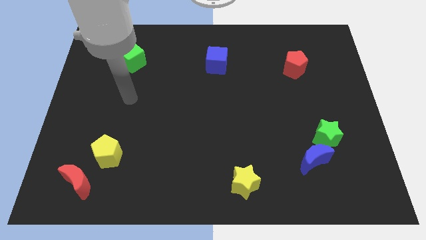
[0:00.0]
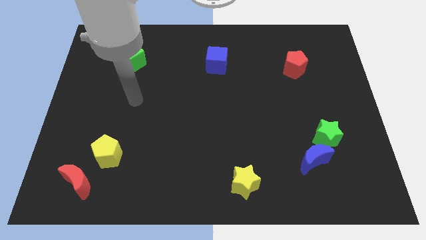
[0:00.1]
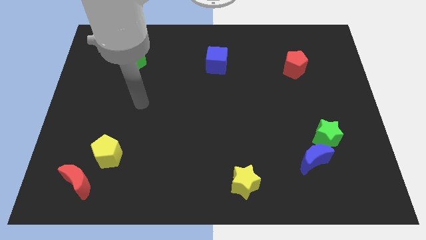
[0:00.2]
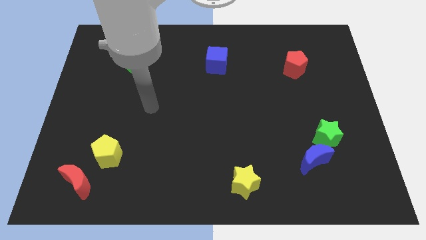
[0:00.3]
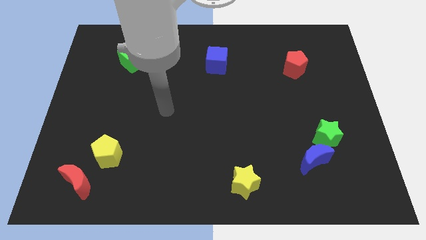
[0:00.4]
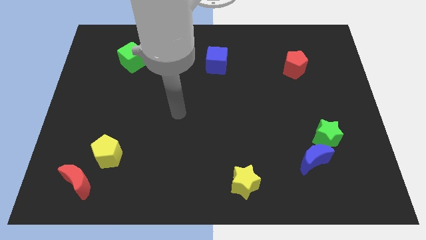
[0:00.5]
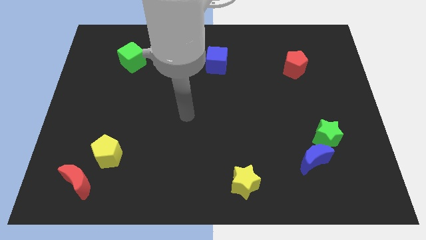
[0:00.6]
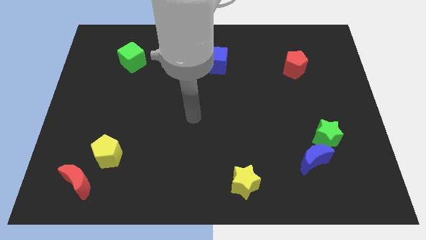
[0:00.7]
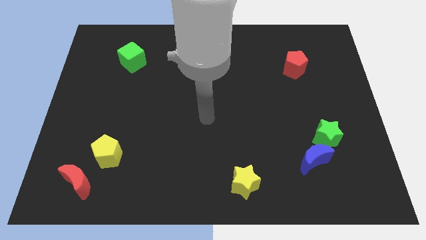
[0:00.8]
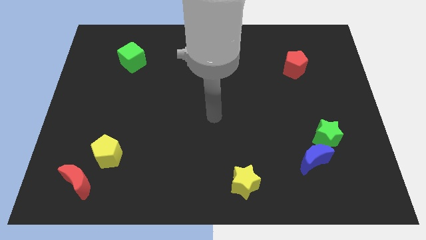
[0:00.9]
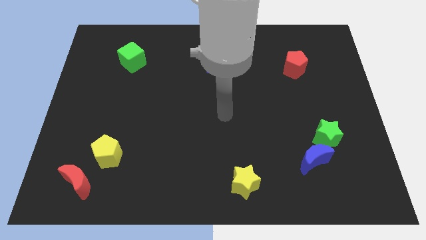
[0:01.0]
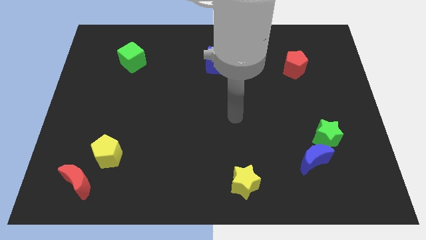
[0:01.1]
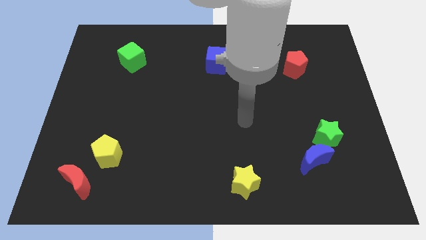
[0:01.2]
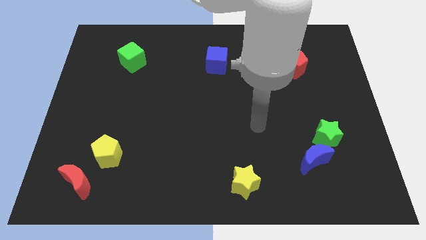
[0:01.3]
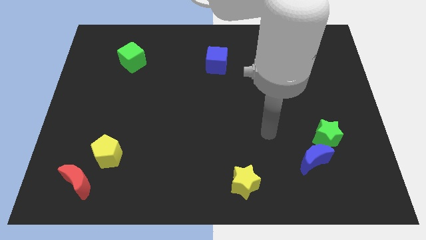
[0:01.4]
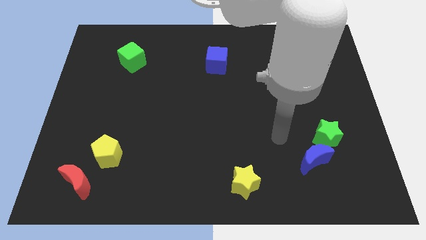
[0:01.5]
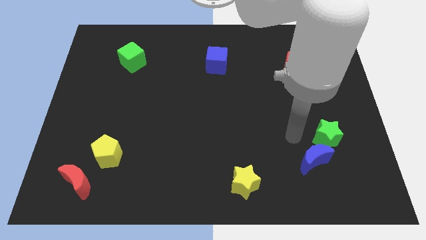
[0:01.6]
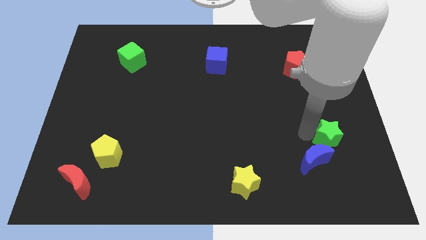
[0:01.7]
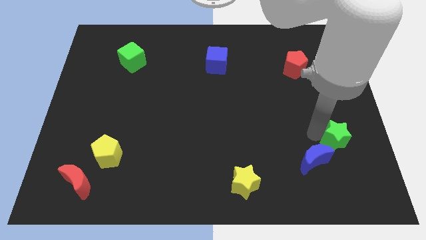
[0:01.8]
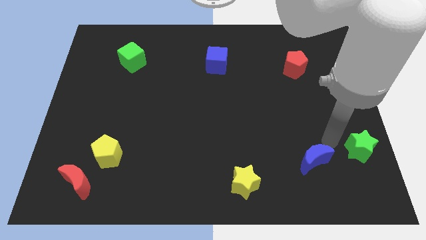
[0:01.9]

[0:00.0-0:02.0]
pull the blue moon apart from the green star

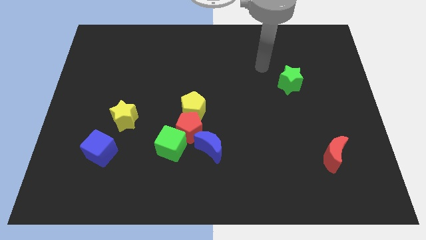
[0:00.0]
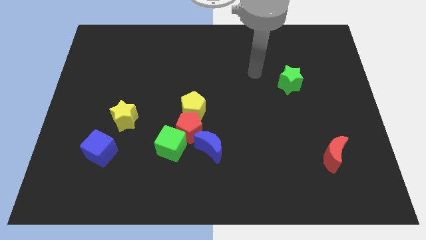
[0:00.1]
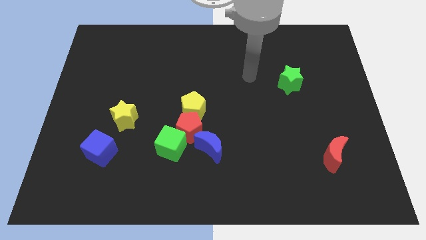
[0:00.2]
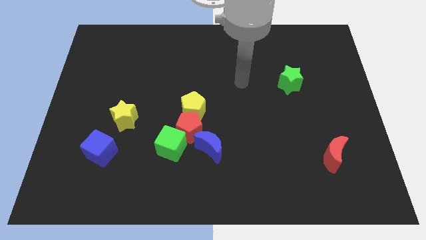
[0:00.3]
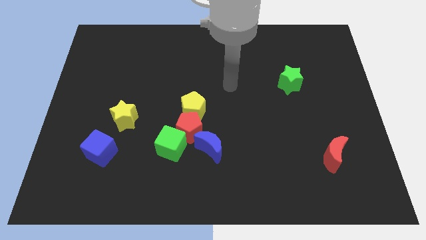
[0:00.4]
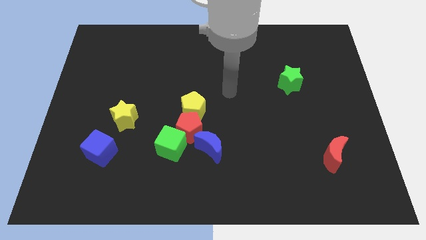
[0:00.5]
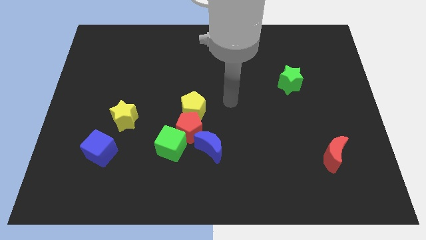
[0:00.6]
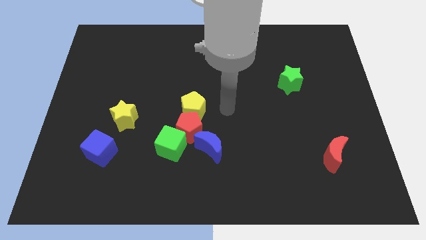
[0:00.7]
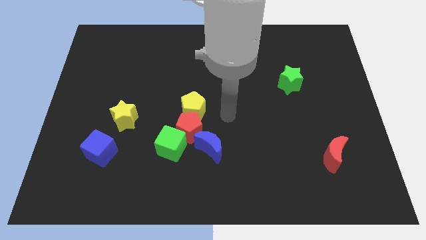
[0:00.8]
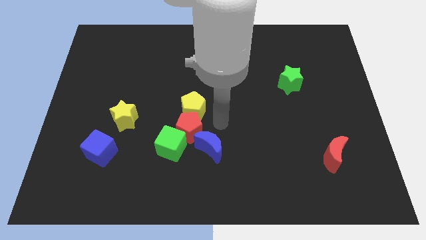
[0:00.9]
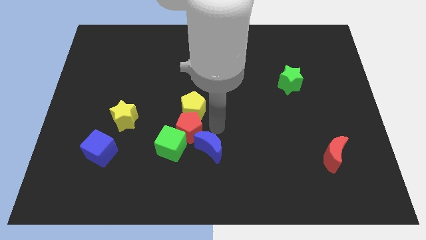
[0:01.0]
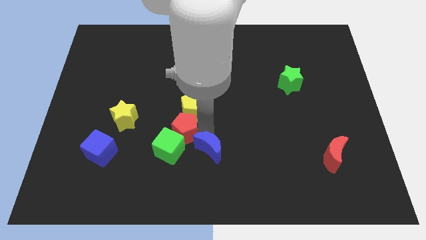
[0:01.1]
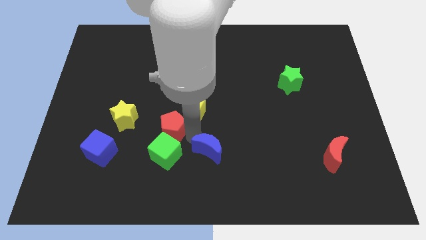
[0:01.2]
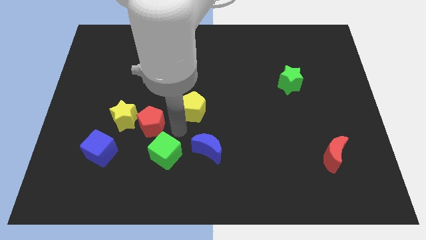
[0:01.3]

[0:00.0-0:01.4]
move the yellow pentagon away from the red pentagon

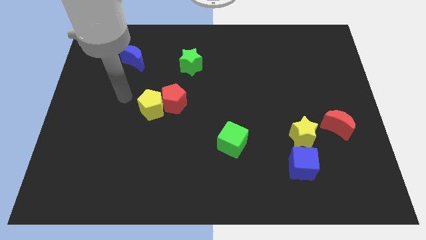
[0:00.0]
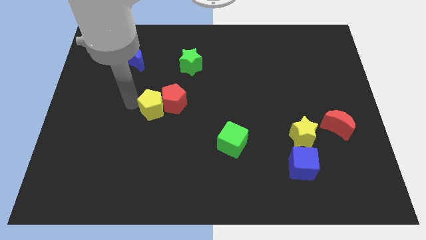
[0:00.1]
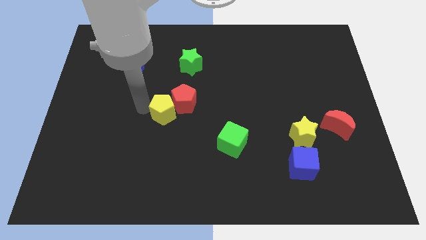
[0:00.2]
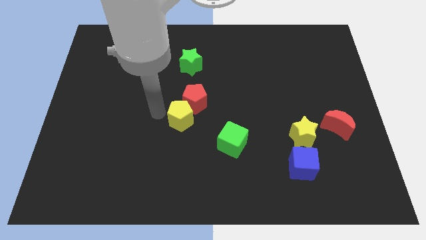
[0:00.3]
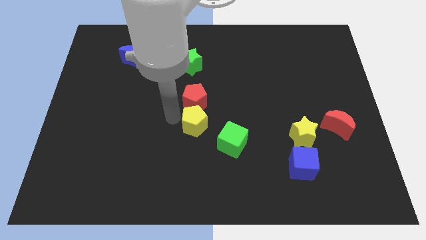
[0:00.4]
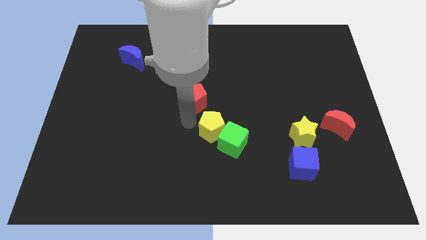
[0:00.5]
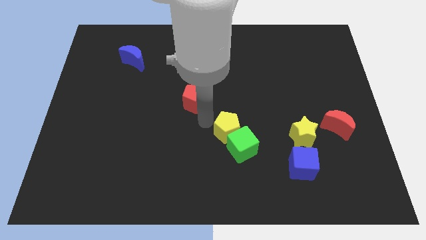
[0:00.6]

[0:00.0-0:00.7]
pull the red pentagon apart from the yellow pentagon

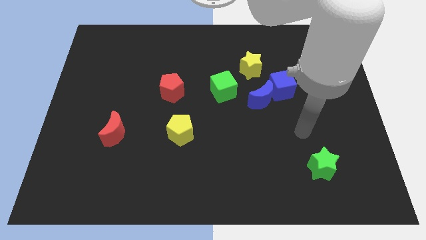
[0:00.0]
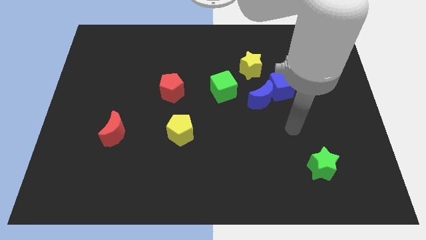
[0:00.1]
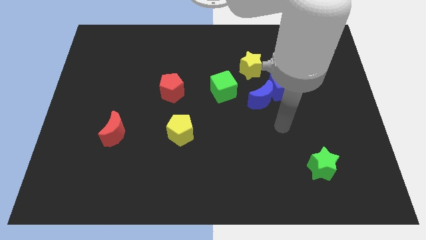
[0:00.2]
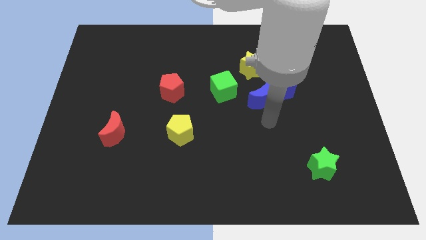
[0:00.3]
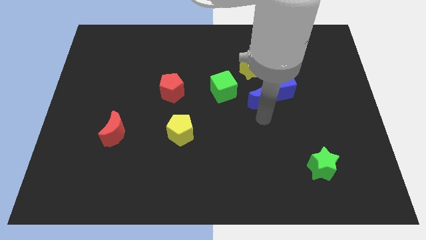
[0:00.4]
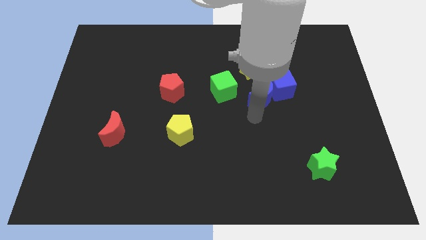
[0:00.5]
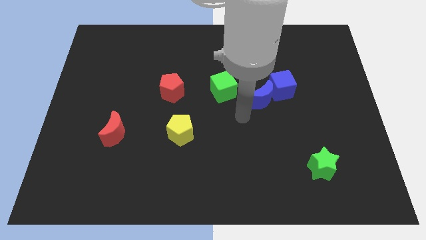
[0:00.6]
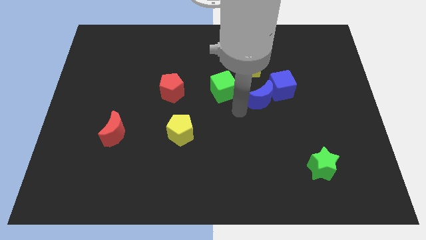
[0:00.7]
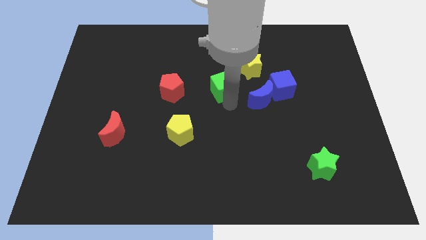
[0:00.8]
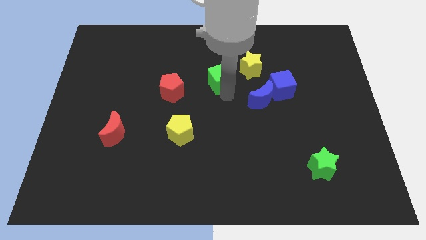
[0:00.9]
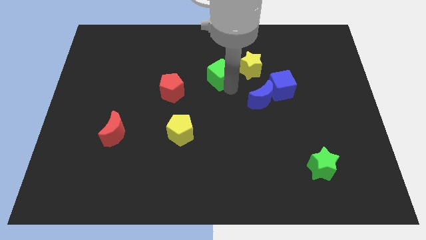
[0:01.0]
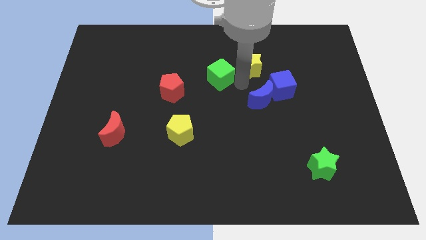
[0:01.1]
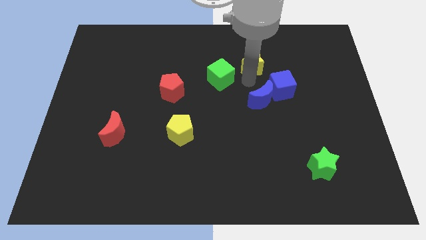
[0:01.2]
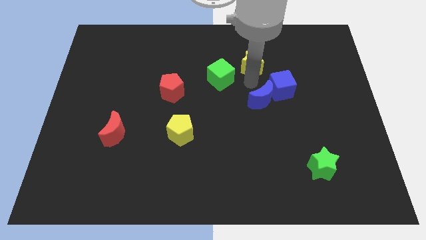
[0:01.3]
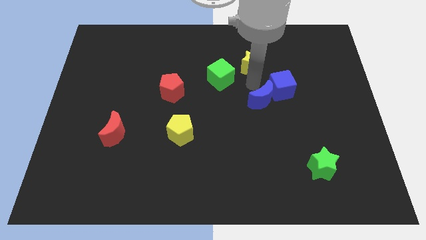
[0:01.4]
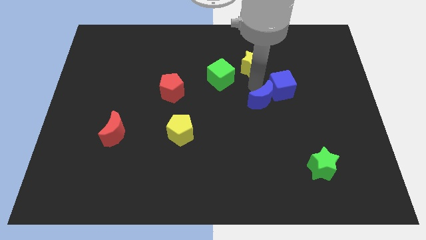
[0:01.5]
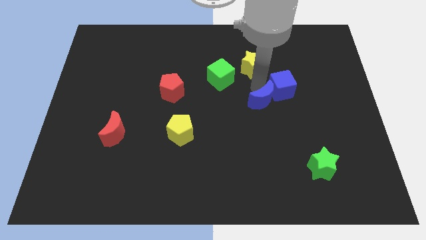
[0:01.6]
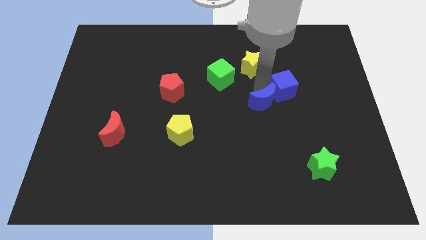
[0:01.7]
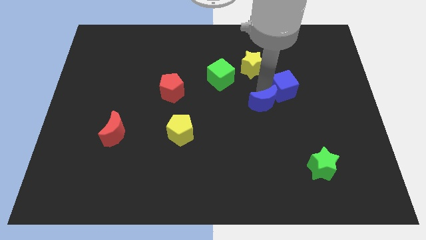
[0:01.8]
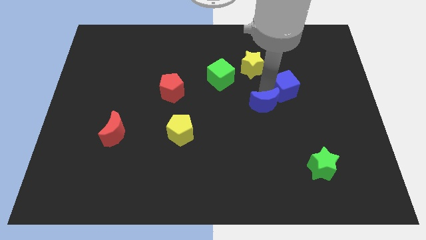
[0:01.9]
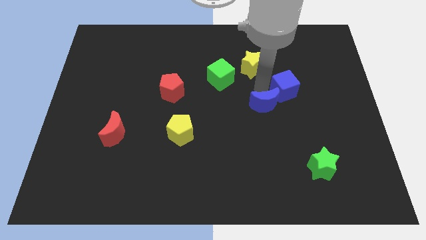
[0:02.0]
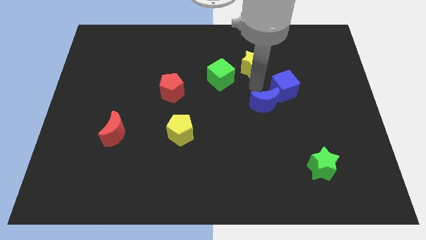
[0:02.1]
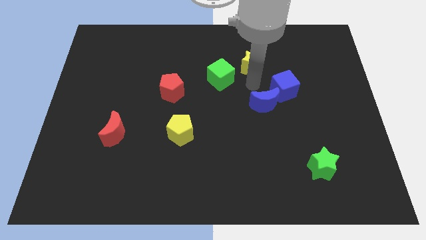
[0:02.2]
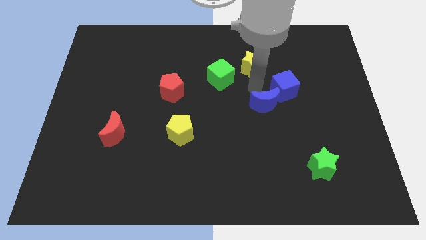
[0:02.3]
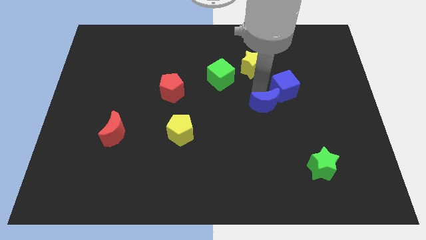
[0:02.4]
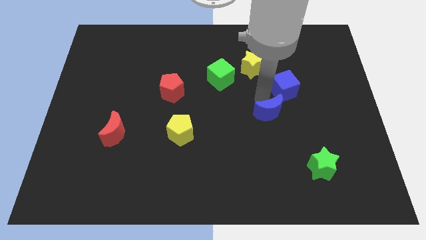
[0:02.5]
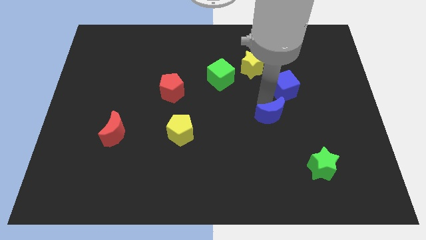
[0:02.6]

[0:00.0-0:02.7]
separate the blue moon from the blue cube and green cube

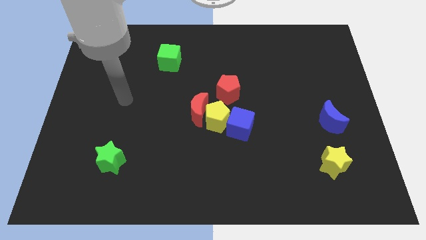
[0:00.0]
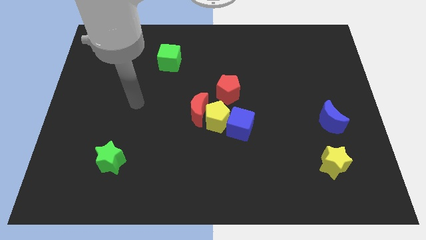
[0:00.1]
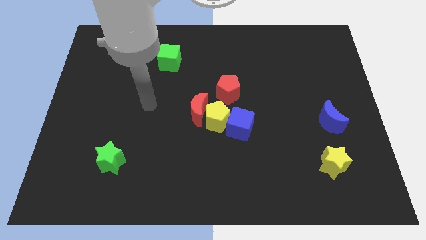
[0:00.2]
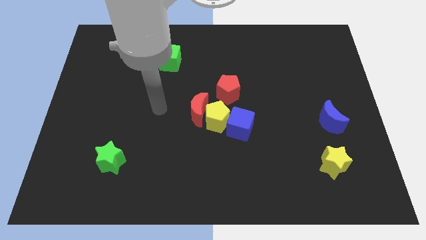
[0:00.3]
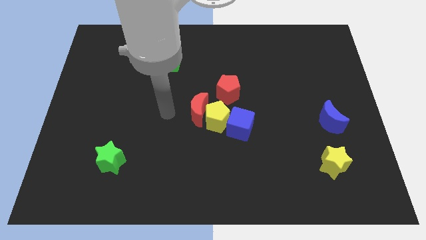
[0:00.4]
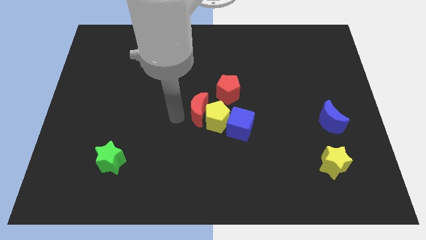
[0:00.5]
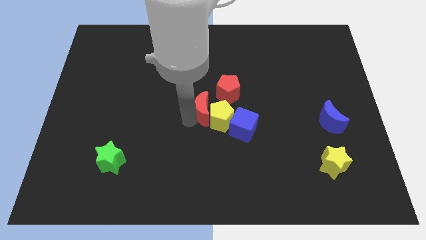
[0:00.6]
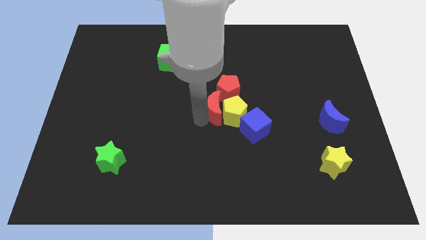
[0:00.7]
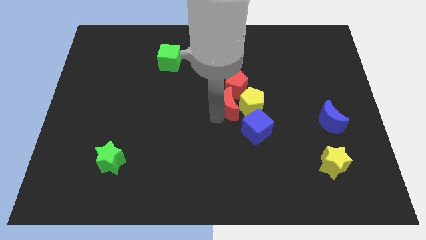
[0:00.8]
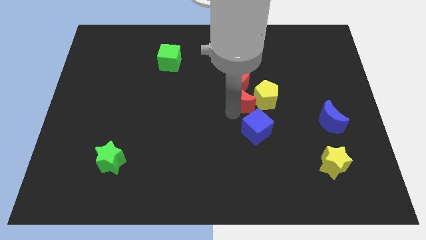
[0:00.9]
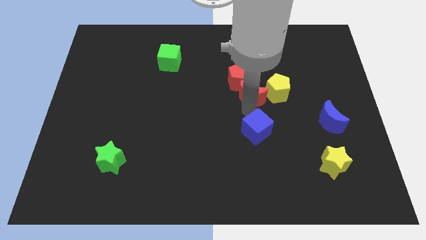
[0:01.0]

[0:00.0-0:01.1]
separate the blue cube from the yellow pentagon

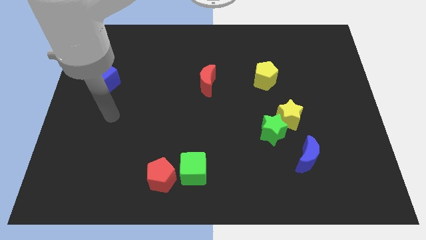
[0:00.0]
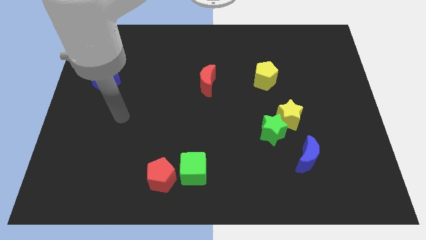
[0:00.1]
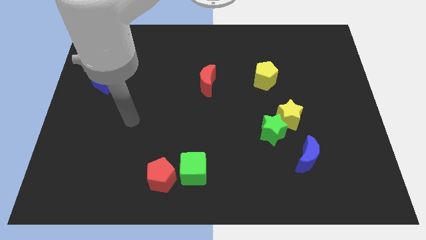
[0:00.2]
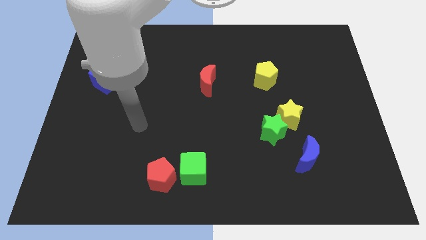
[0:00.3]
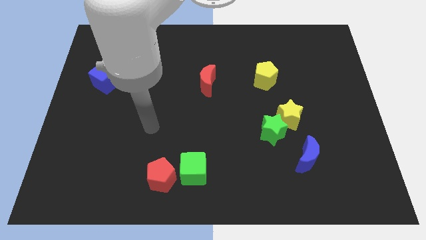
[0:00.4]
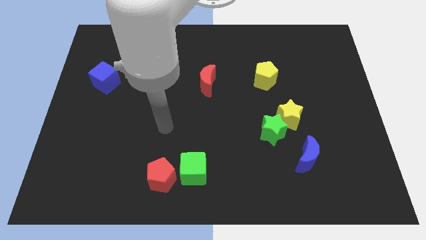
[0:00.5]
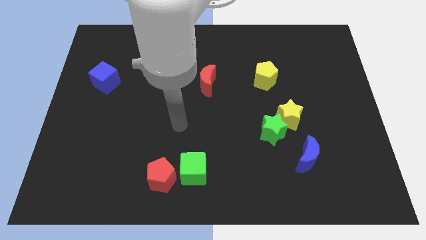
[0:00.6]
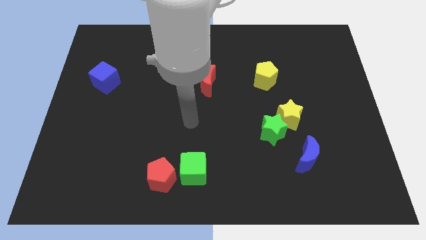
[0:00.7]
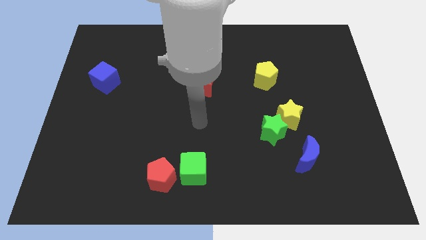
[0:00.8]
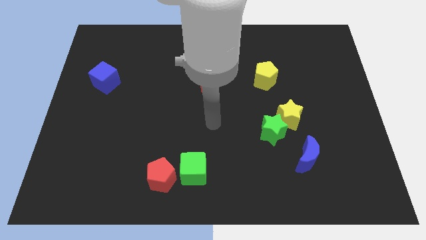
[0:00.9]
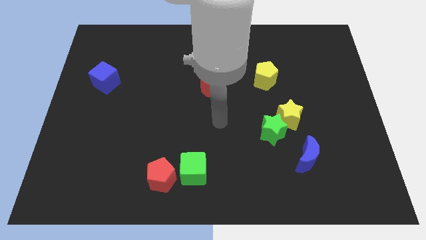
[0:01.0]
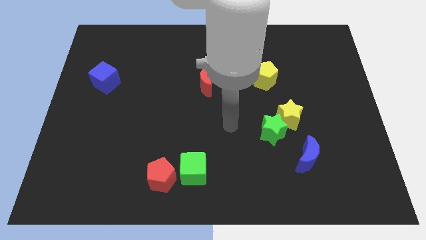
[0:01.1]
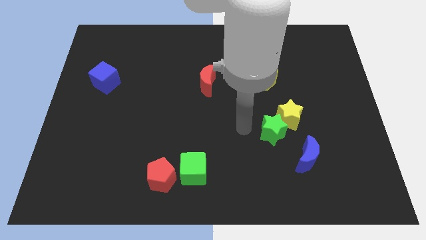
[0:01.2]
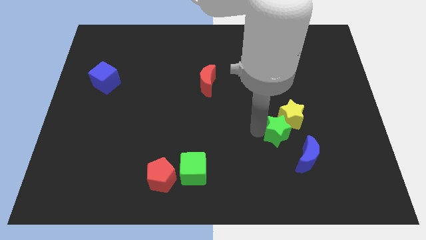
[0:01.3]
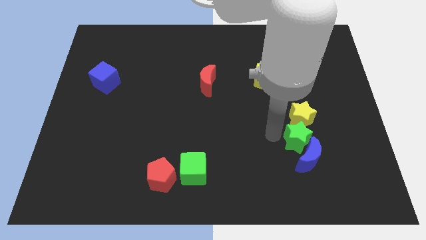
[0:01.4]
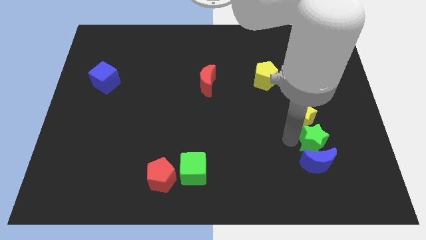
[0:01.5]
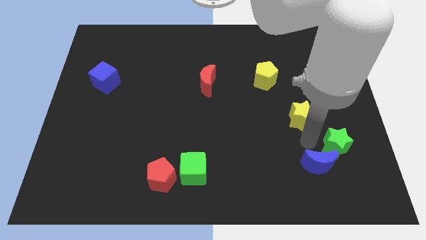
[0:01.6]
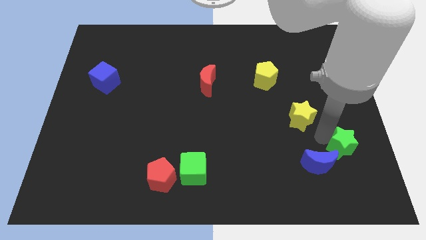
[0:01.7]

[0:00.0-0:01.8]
move the yellow star away from the green star
